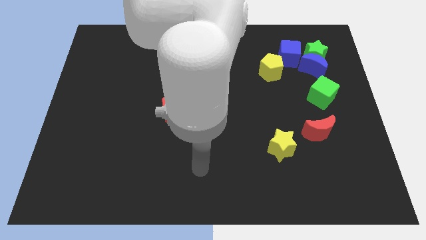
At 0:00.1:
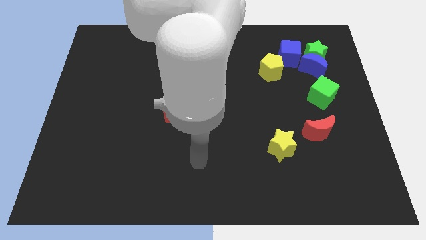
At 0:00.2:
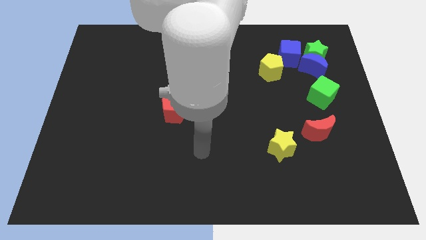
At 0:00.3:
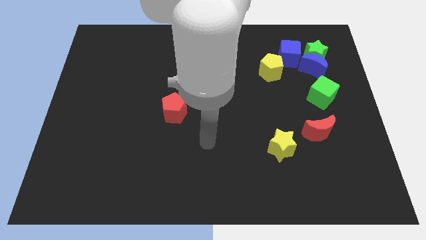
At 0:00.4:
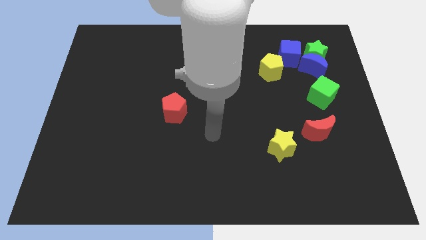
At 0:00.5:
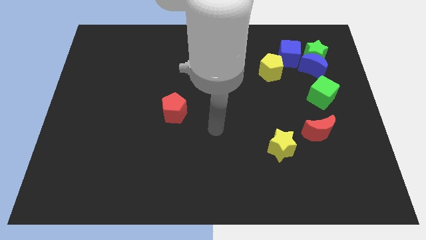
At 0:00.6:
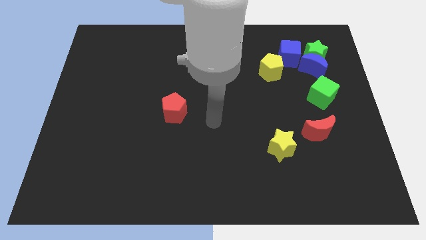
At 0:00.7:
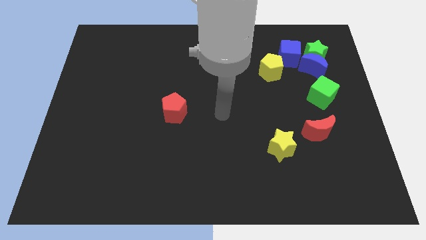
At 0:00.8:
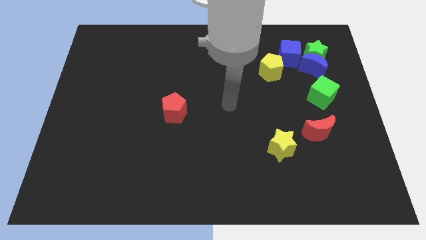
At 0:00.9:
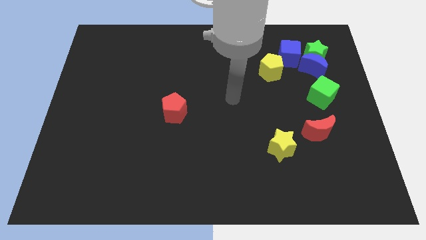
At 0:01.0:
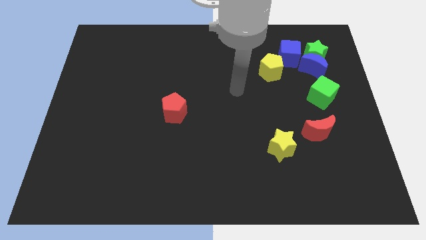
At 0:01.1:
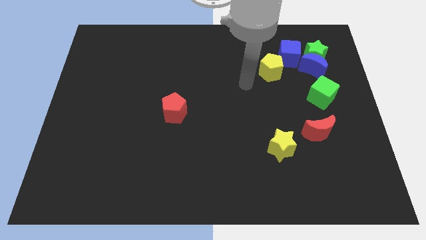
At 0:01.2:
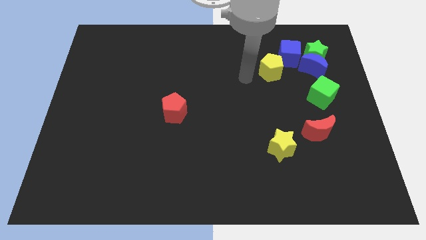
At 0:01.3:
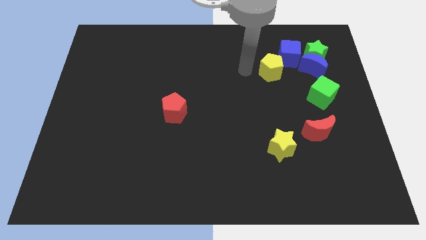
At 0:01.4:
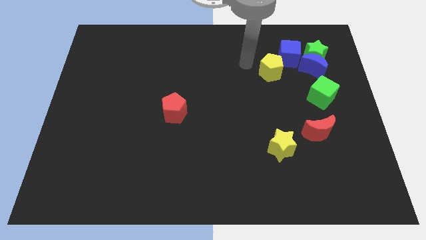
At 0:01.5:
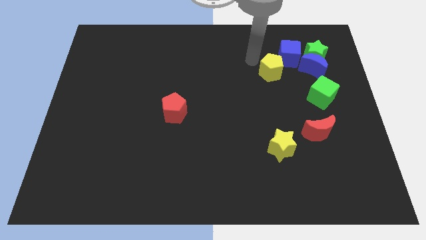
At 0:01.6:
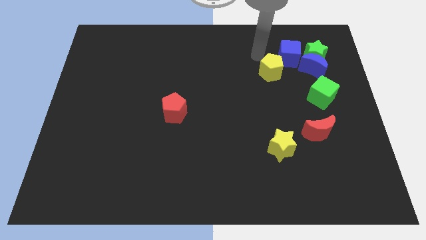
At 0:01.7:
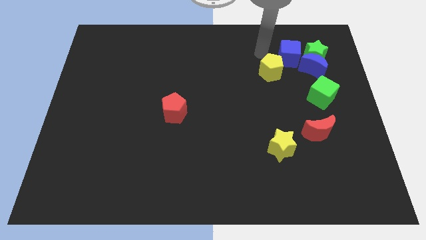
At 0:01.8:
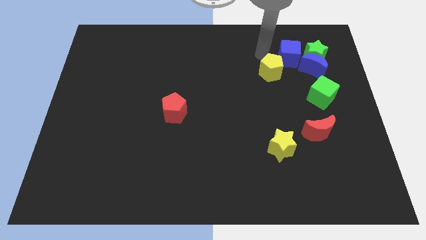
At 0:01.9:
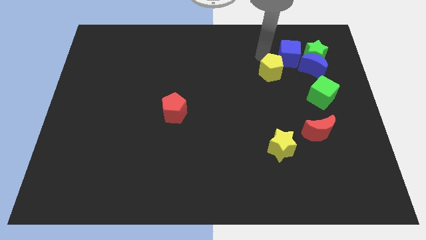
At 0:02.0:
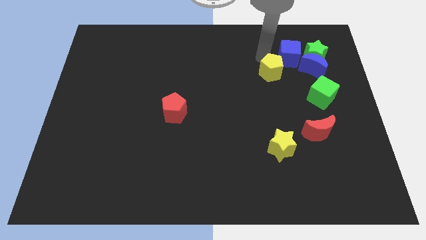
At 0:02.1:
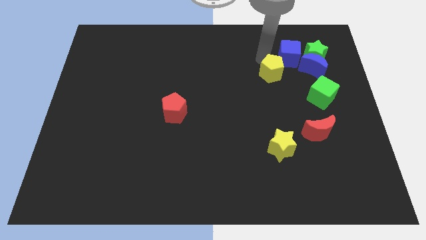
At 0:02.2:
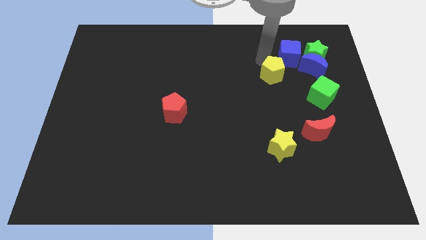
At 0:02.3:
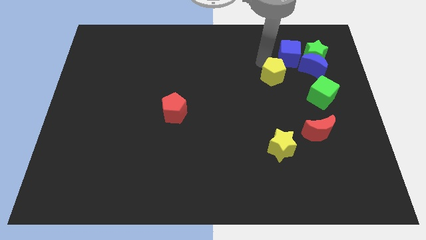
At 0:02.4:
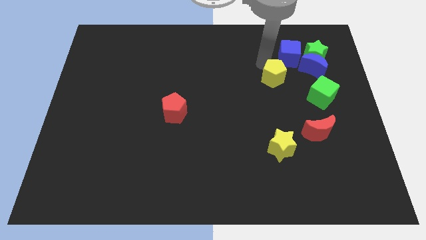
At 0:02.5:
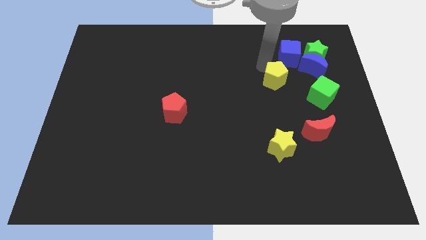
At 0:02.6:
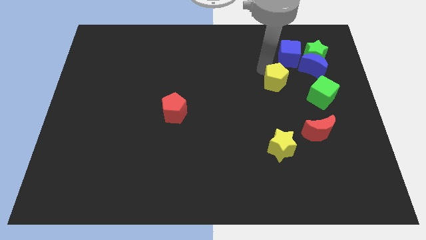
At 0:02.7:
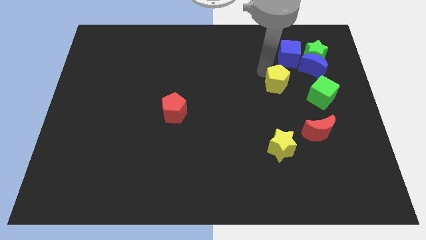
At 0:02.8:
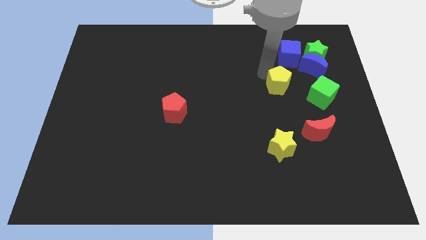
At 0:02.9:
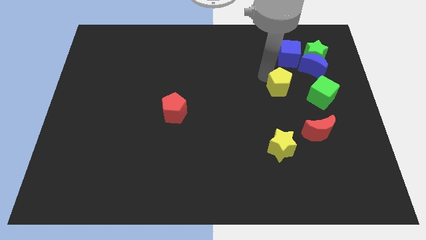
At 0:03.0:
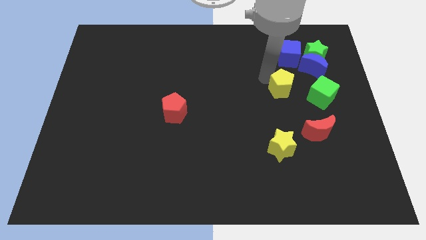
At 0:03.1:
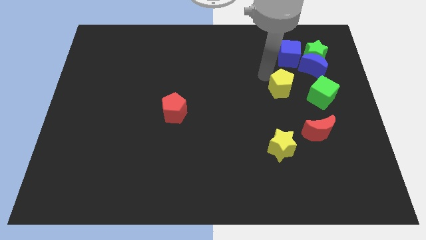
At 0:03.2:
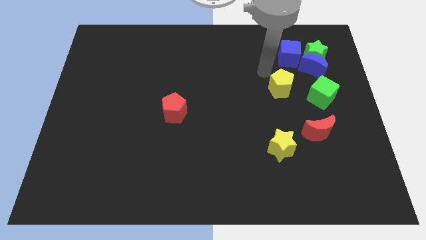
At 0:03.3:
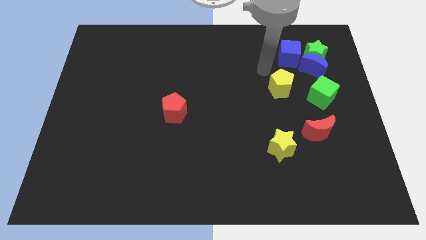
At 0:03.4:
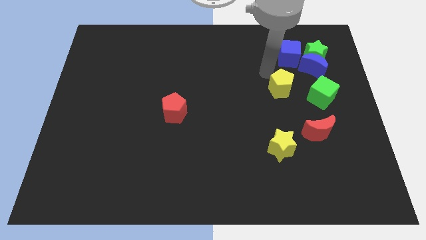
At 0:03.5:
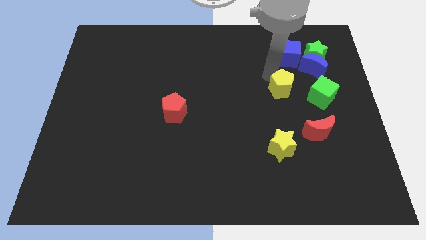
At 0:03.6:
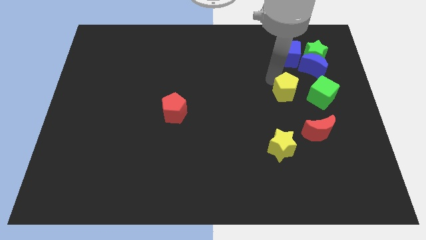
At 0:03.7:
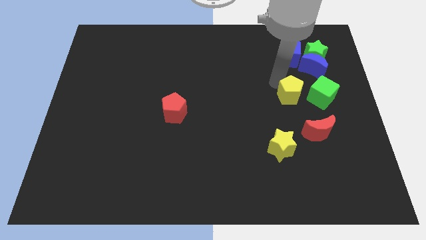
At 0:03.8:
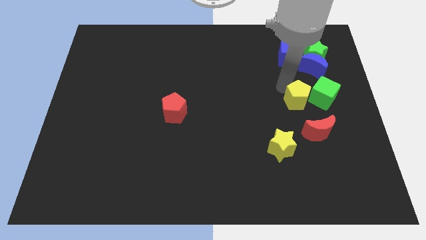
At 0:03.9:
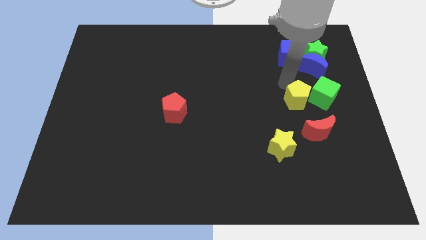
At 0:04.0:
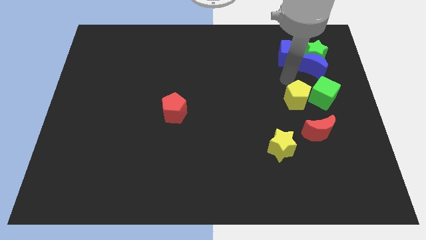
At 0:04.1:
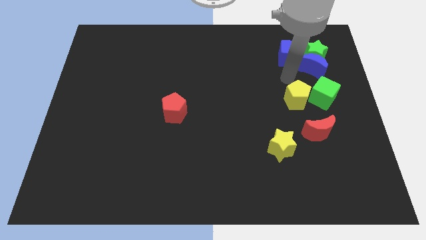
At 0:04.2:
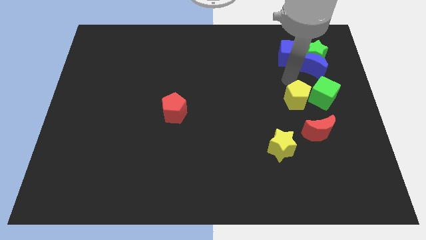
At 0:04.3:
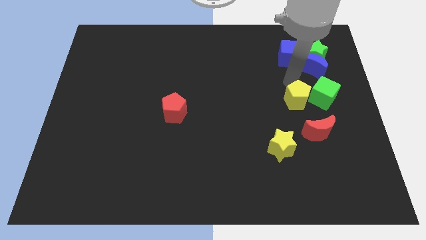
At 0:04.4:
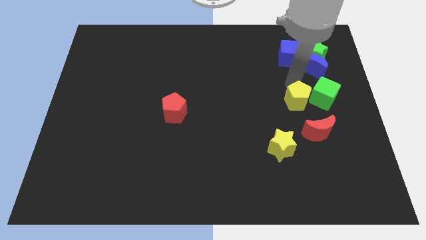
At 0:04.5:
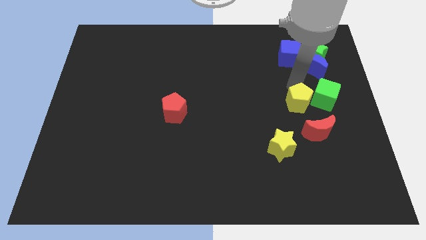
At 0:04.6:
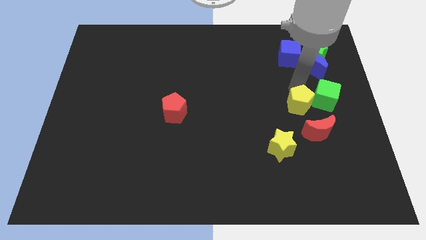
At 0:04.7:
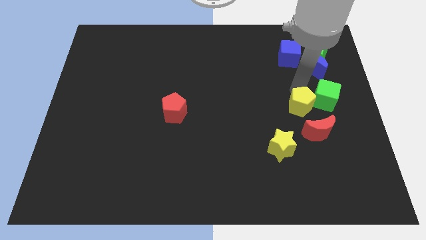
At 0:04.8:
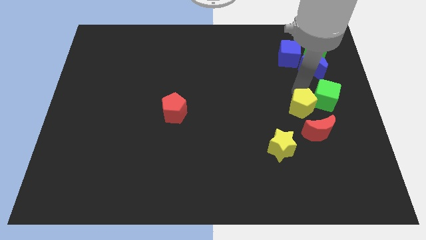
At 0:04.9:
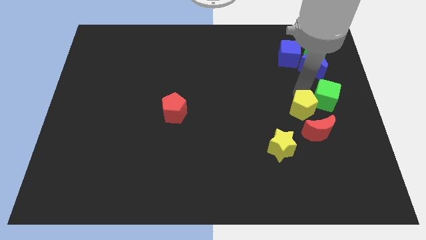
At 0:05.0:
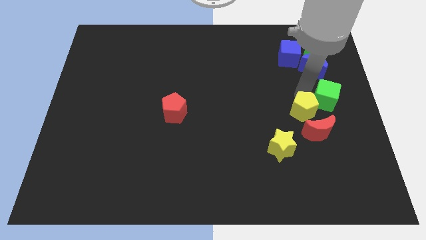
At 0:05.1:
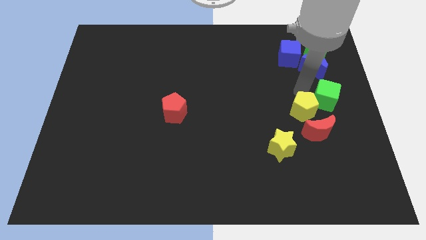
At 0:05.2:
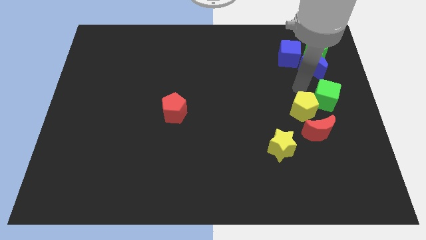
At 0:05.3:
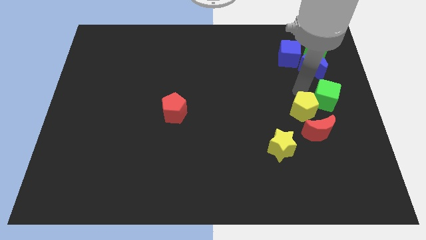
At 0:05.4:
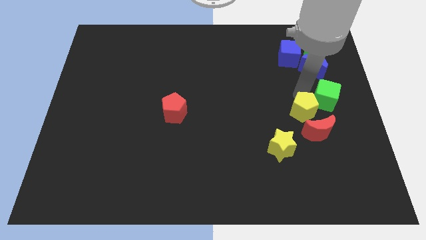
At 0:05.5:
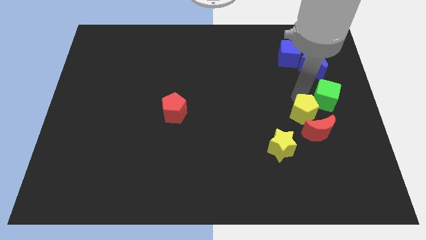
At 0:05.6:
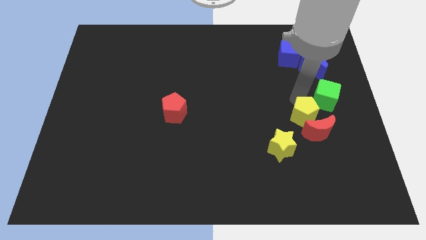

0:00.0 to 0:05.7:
put the yellow pentagon towards the red moon

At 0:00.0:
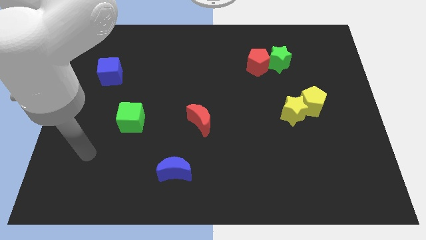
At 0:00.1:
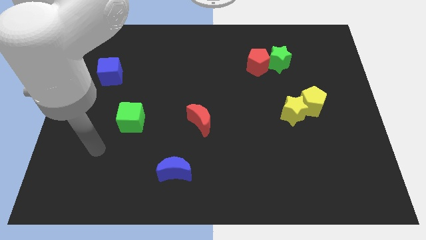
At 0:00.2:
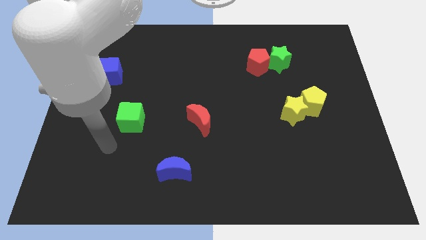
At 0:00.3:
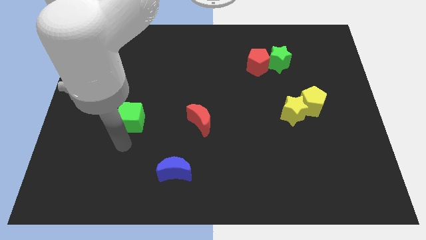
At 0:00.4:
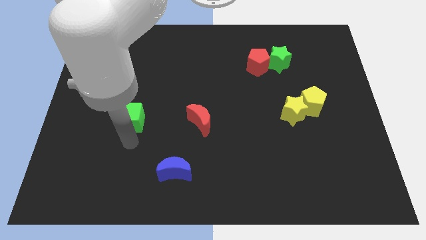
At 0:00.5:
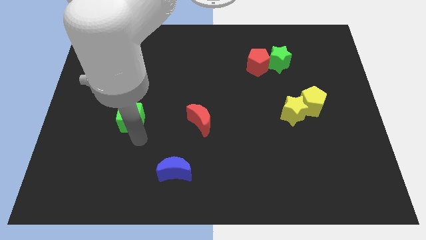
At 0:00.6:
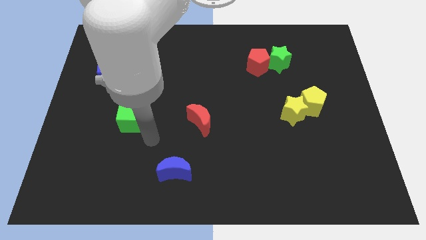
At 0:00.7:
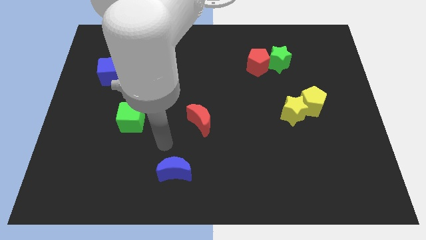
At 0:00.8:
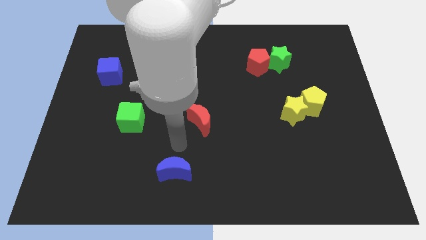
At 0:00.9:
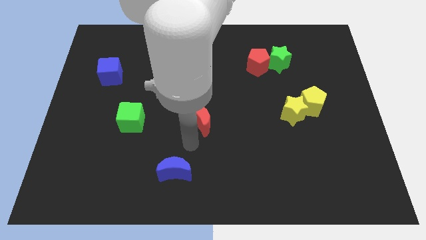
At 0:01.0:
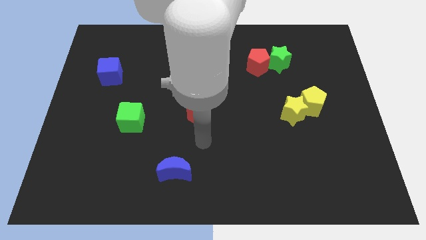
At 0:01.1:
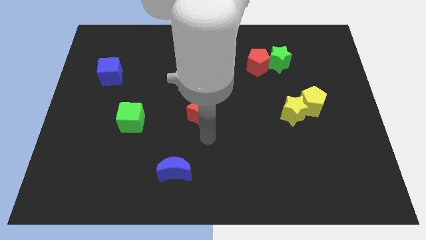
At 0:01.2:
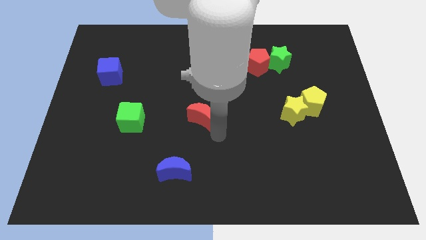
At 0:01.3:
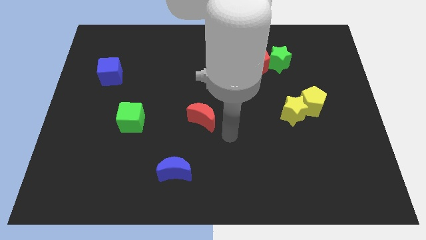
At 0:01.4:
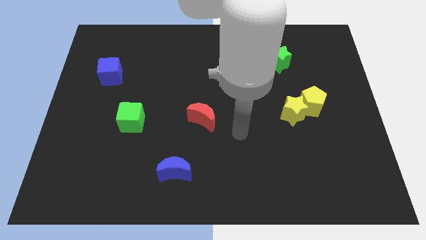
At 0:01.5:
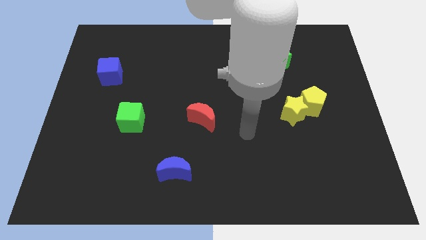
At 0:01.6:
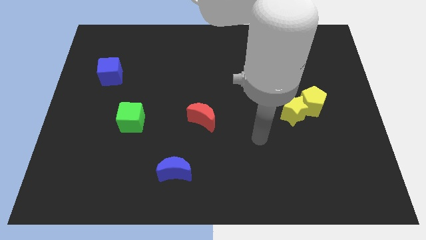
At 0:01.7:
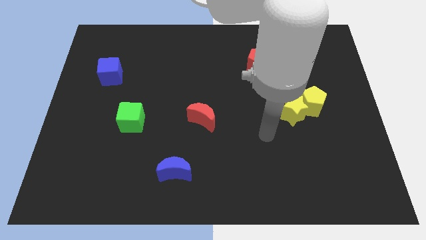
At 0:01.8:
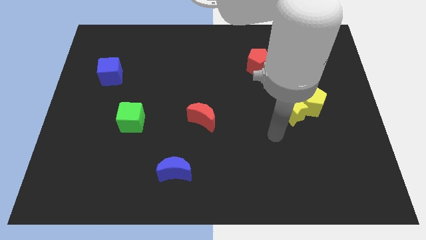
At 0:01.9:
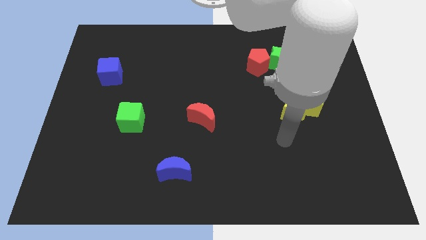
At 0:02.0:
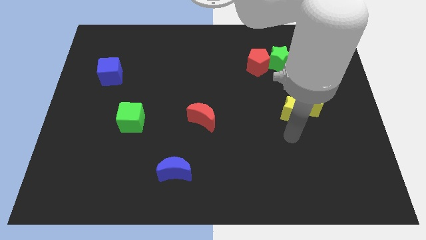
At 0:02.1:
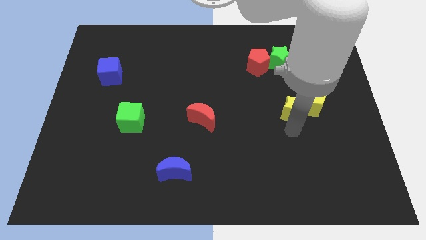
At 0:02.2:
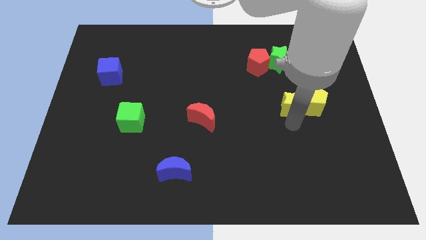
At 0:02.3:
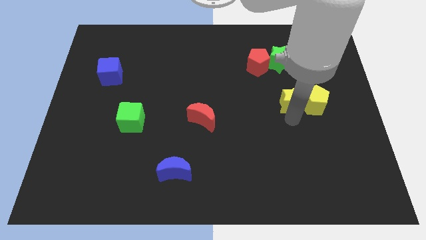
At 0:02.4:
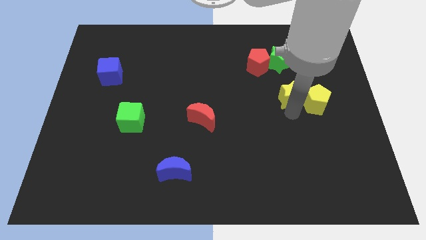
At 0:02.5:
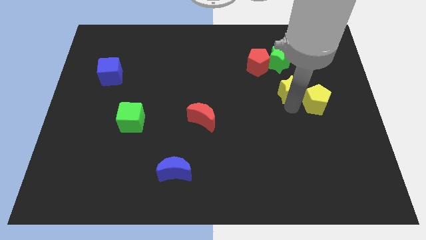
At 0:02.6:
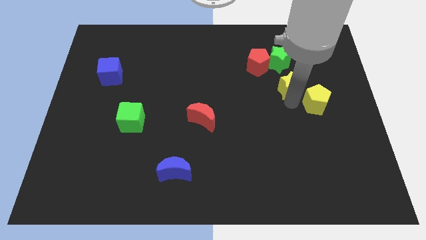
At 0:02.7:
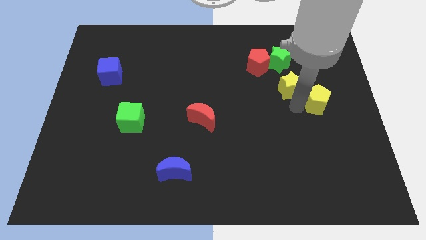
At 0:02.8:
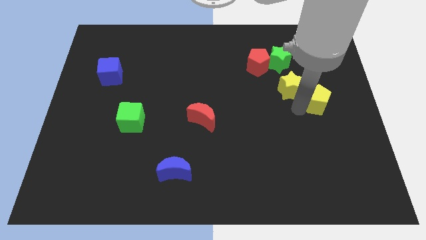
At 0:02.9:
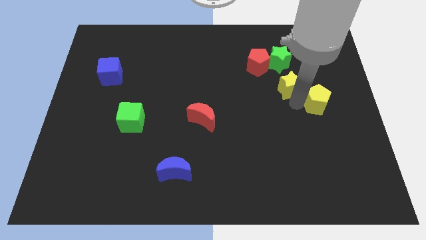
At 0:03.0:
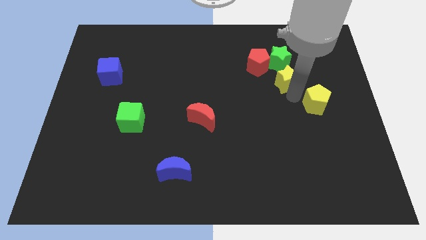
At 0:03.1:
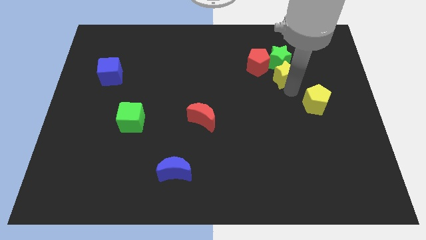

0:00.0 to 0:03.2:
put the yellow star towards the green star
